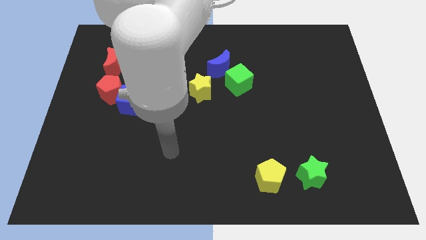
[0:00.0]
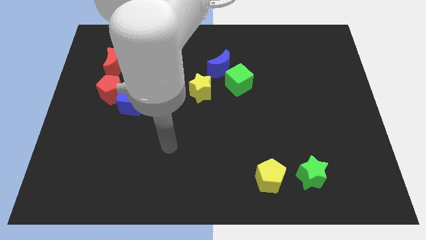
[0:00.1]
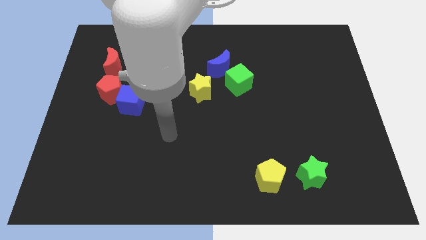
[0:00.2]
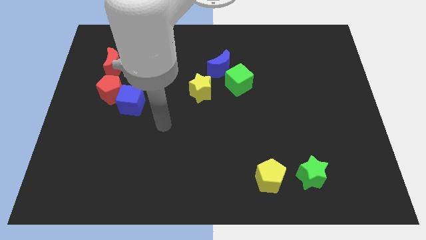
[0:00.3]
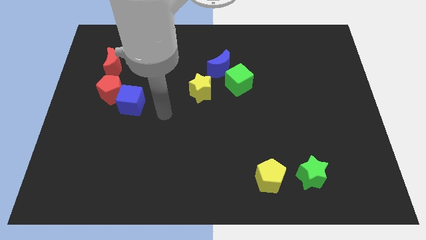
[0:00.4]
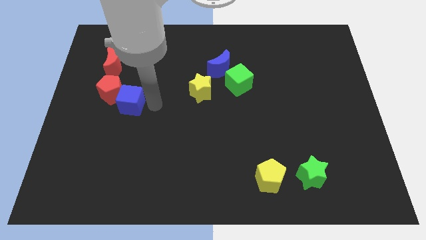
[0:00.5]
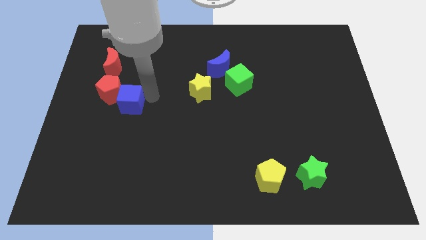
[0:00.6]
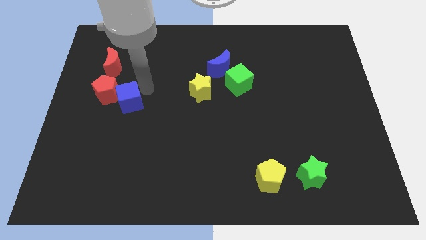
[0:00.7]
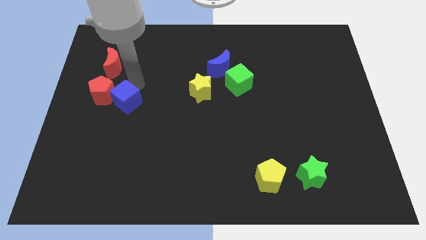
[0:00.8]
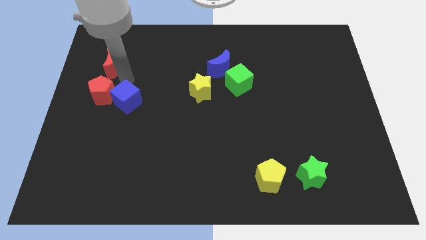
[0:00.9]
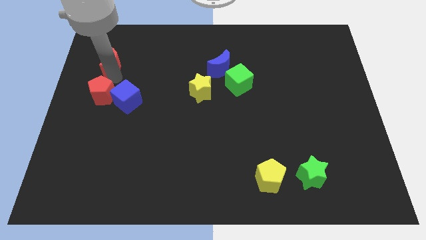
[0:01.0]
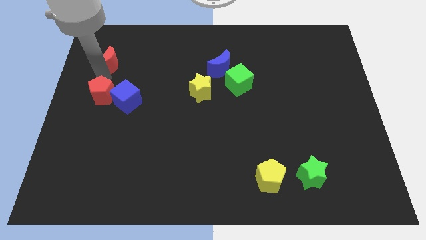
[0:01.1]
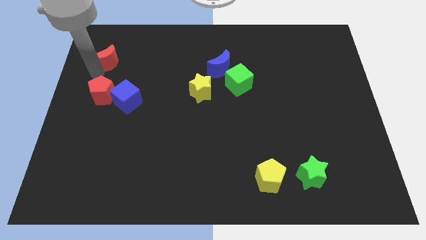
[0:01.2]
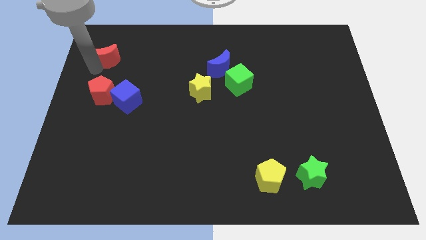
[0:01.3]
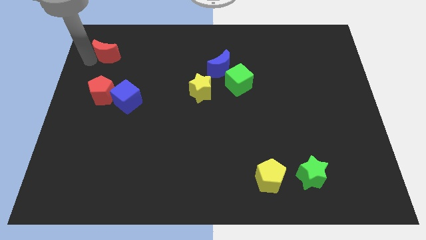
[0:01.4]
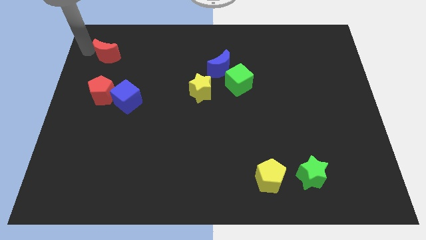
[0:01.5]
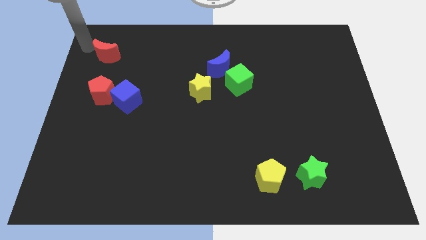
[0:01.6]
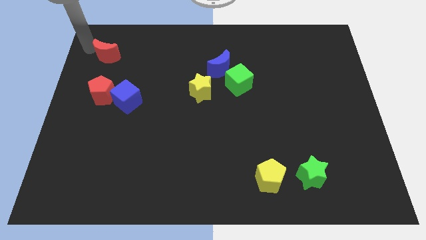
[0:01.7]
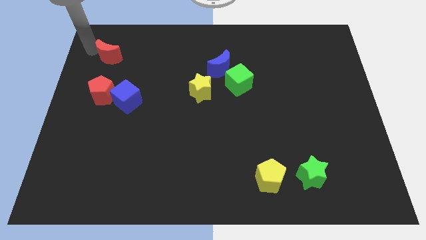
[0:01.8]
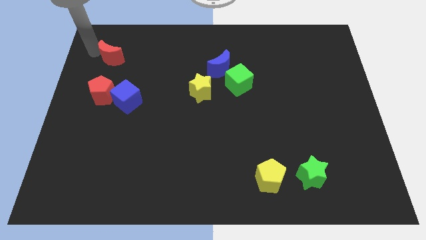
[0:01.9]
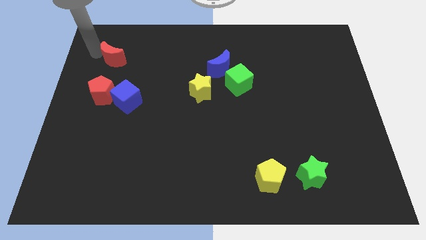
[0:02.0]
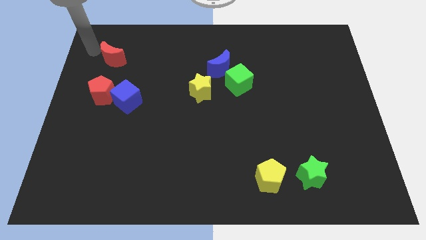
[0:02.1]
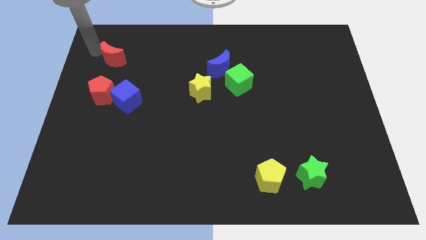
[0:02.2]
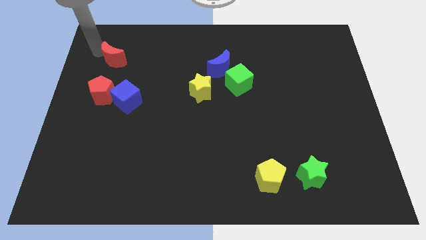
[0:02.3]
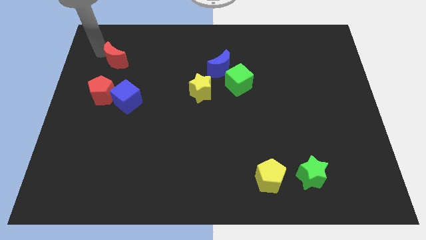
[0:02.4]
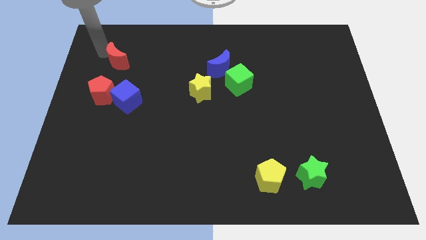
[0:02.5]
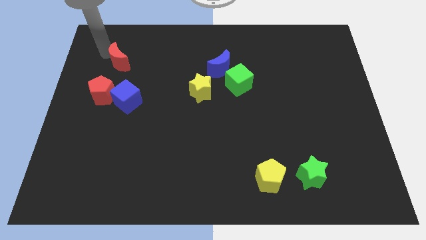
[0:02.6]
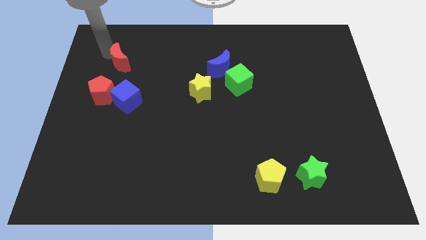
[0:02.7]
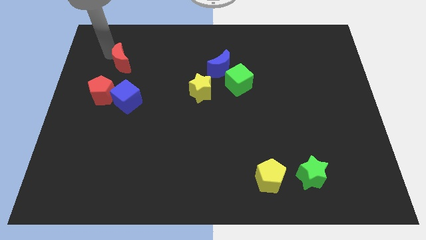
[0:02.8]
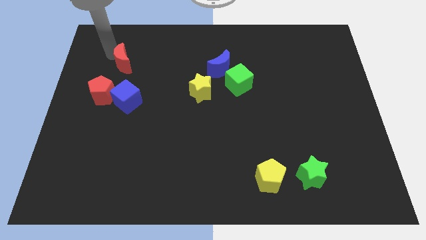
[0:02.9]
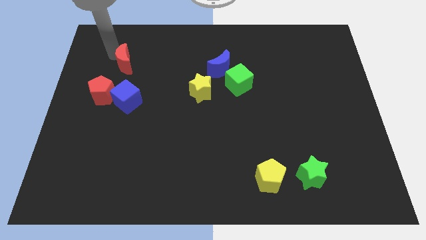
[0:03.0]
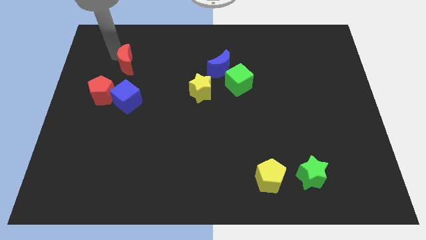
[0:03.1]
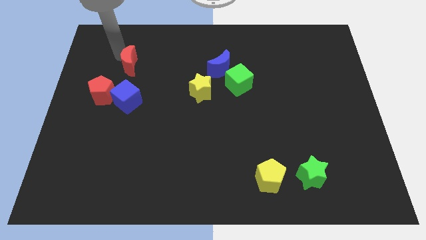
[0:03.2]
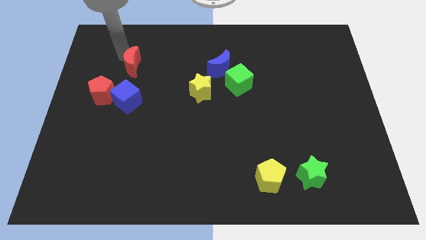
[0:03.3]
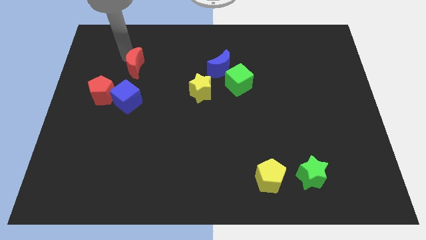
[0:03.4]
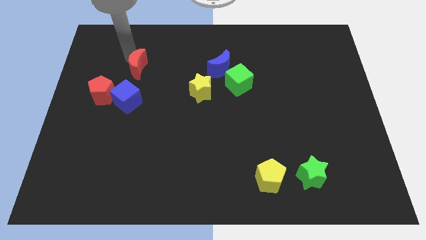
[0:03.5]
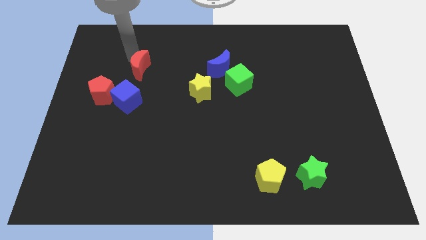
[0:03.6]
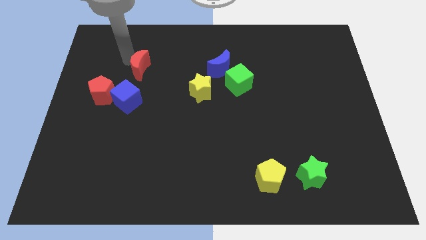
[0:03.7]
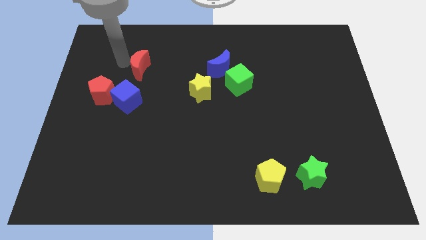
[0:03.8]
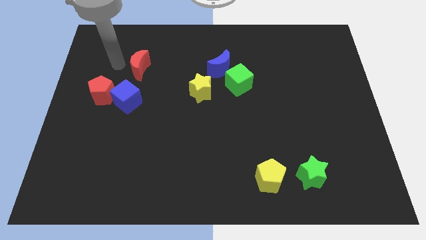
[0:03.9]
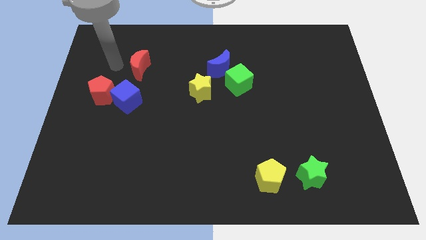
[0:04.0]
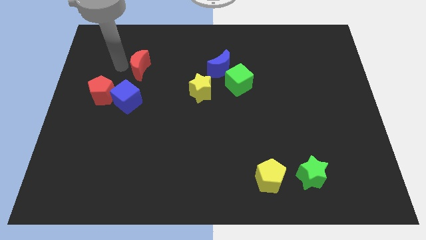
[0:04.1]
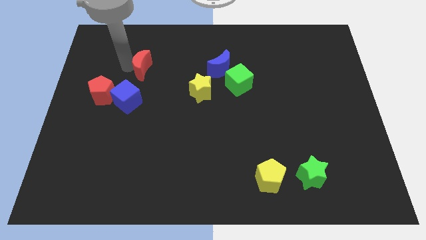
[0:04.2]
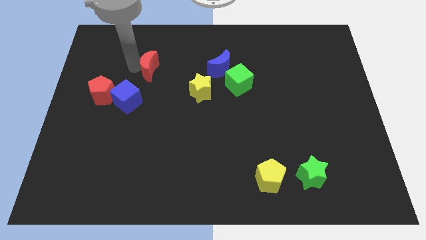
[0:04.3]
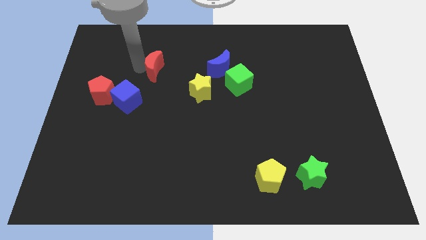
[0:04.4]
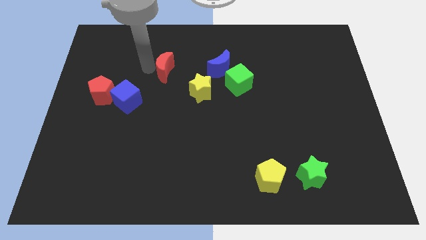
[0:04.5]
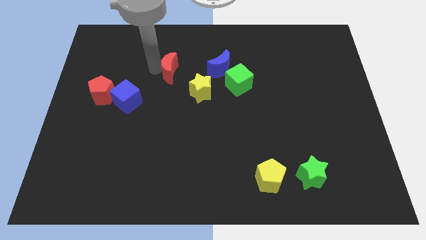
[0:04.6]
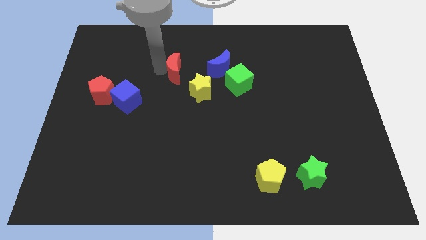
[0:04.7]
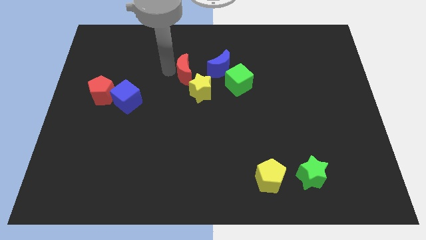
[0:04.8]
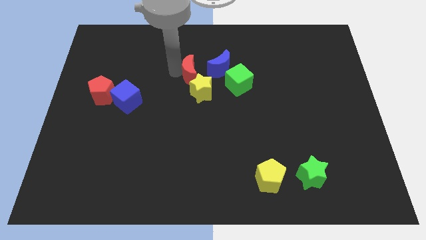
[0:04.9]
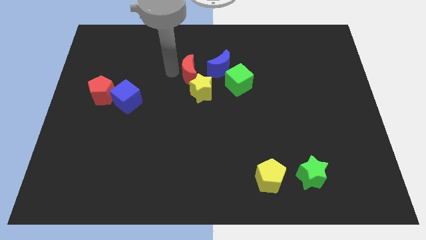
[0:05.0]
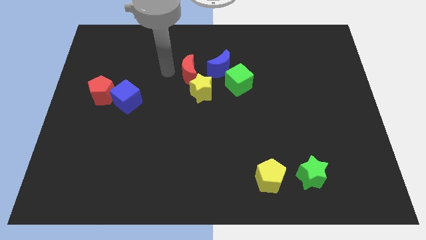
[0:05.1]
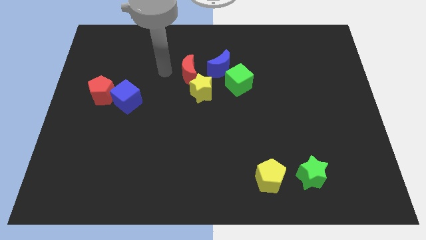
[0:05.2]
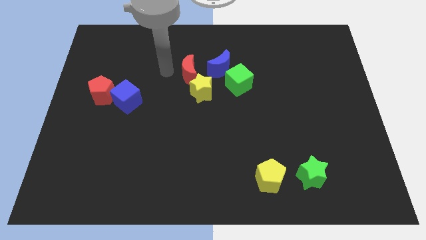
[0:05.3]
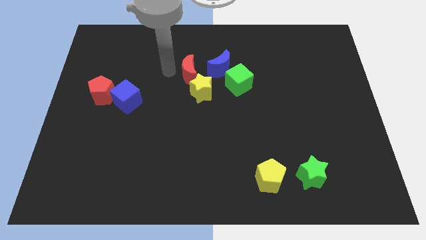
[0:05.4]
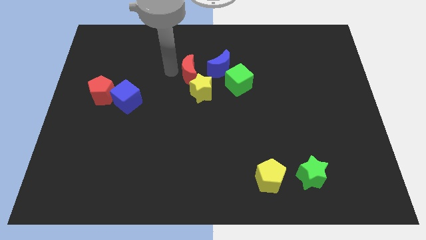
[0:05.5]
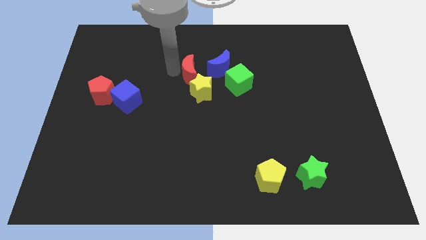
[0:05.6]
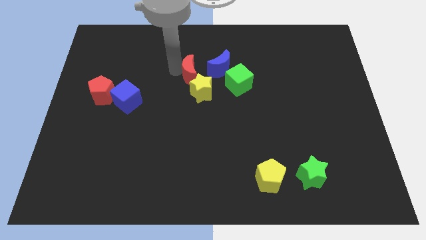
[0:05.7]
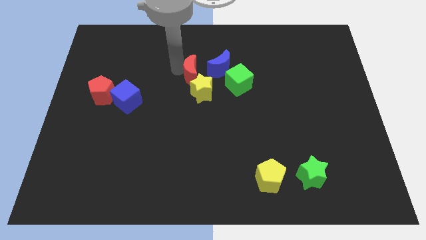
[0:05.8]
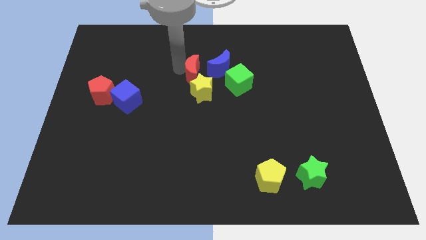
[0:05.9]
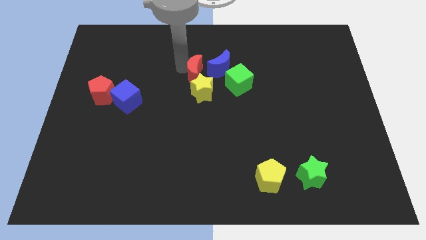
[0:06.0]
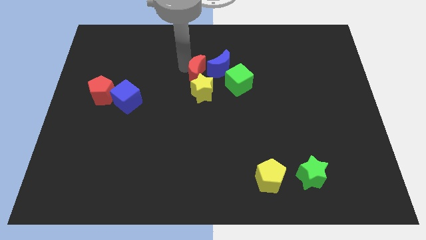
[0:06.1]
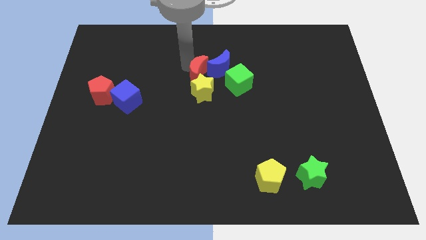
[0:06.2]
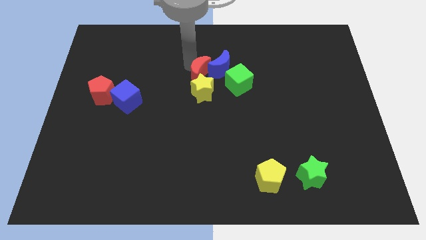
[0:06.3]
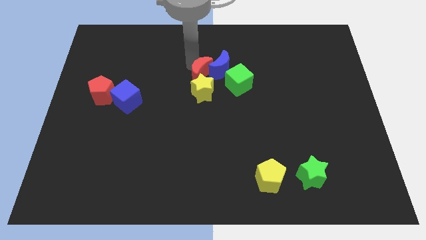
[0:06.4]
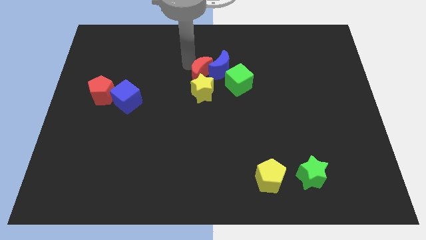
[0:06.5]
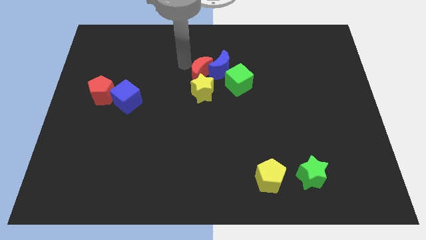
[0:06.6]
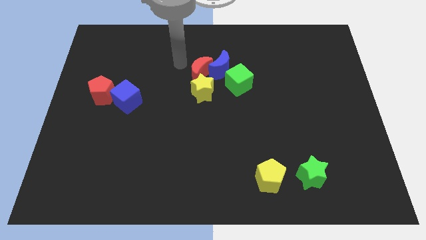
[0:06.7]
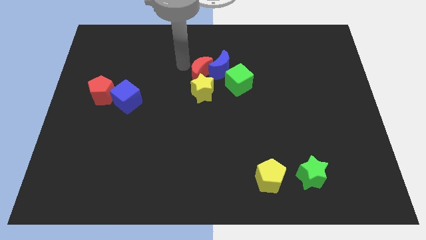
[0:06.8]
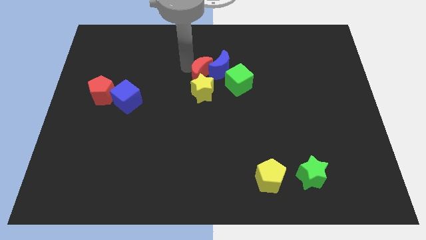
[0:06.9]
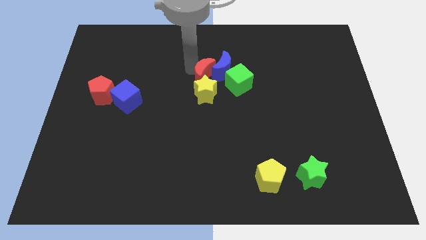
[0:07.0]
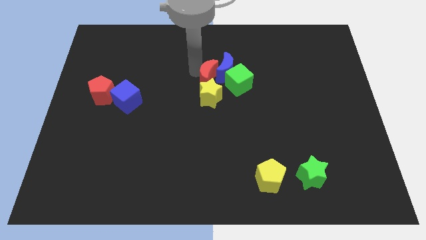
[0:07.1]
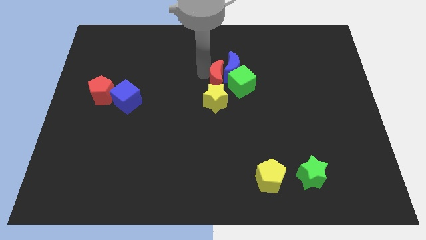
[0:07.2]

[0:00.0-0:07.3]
move the red moon to the bottom of the blue moon
